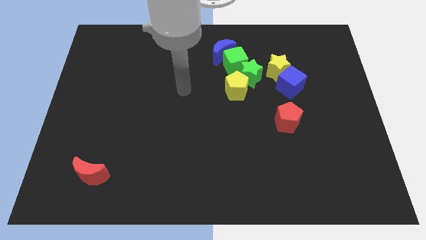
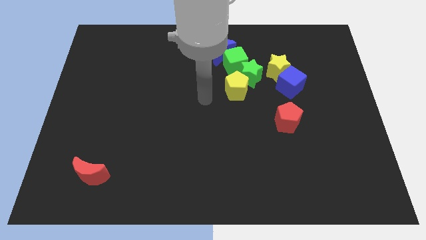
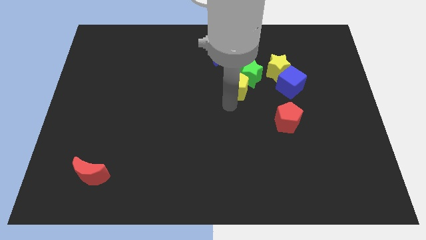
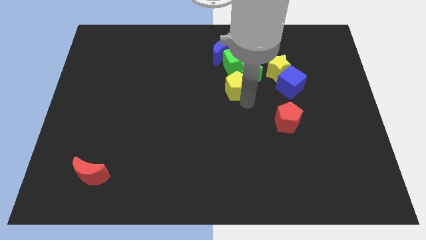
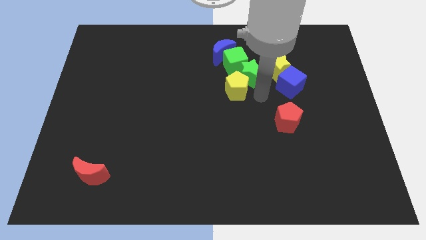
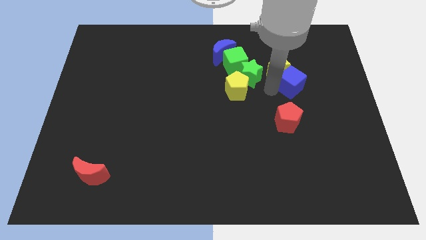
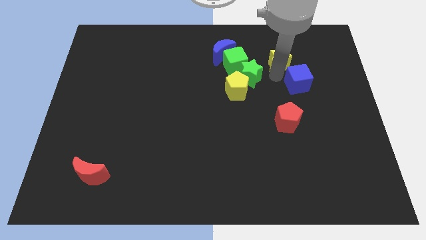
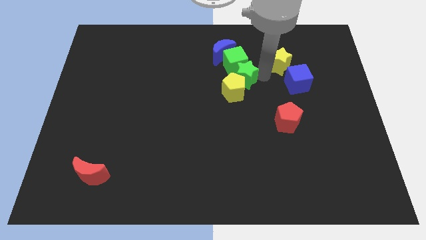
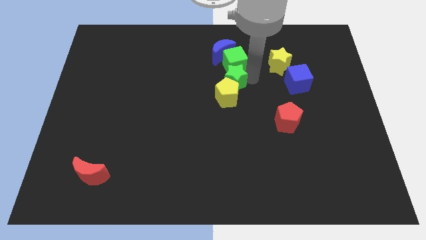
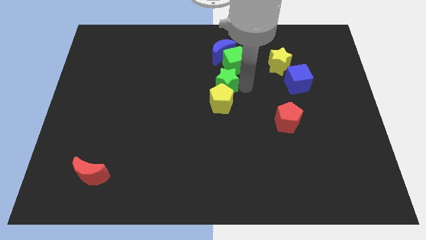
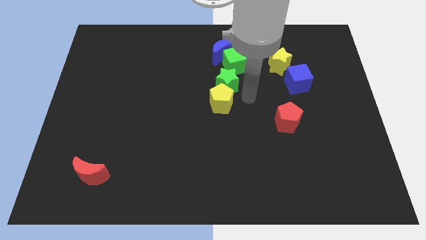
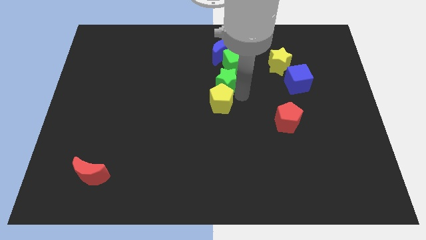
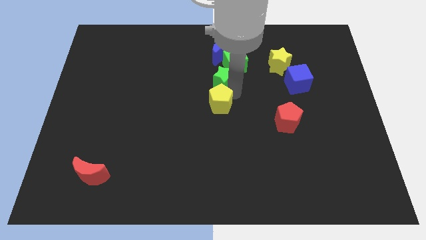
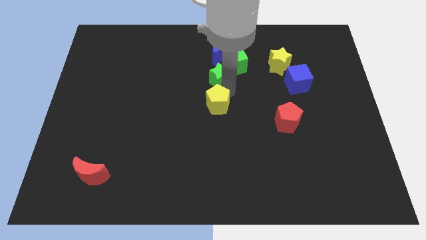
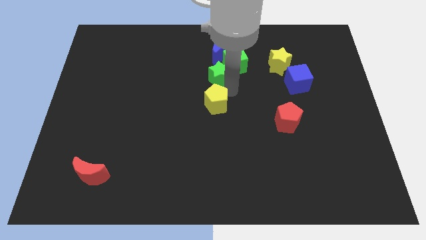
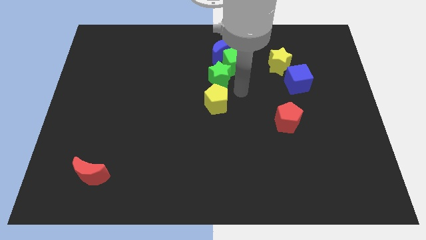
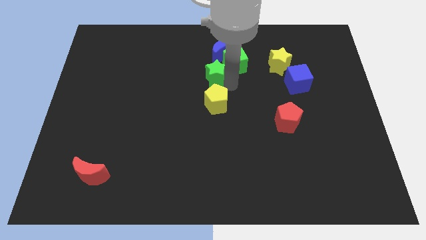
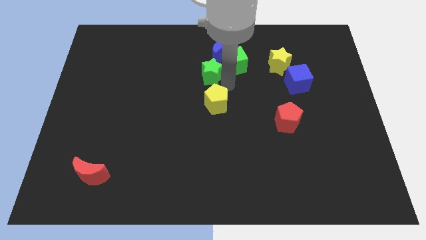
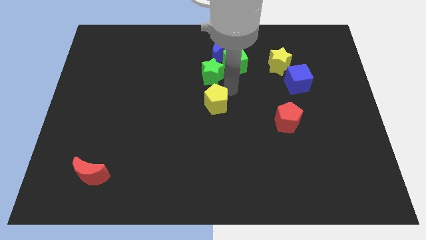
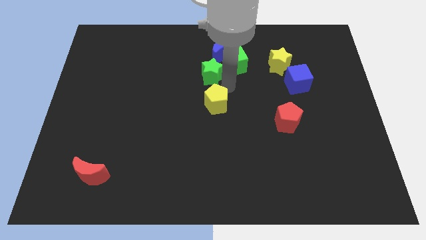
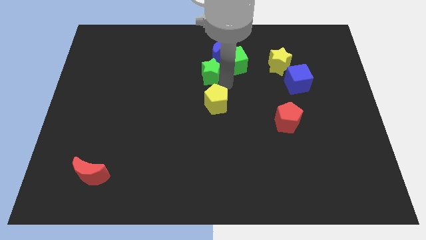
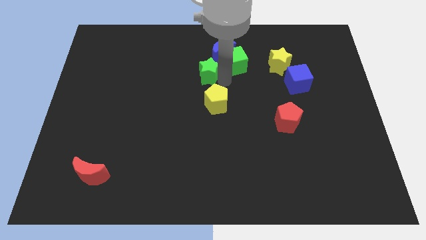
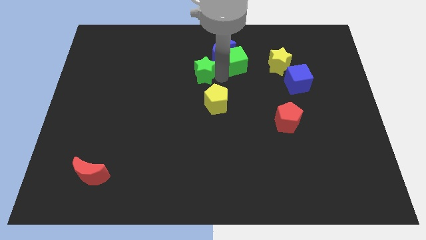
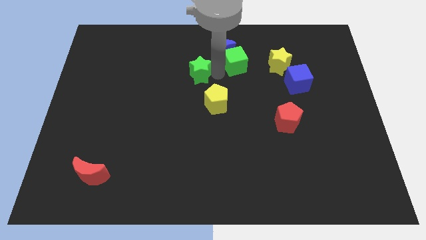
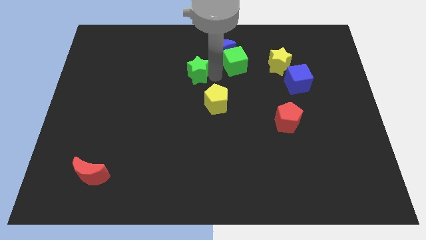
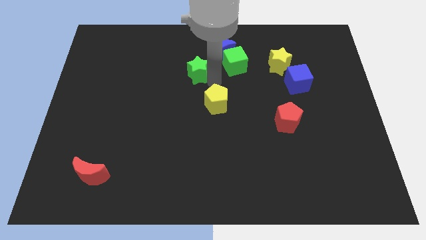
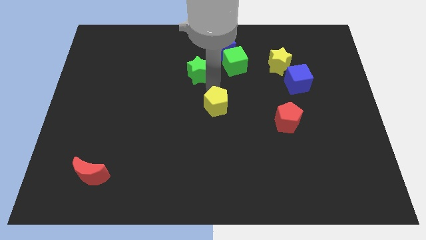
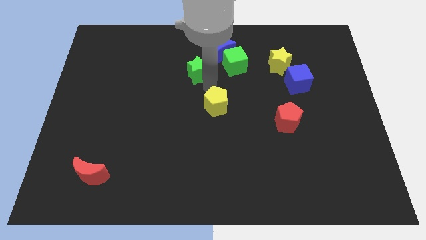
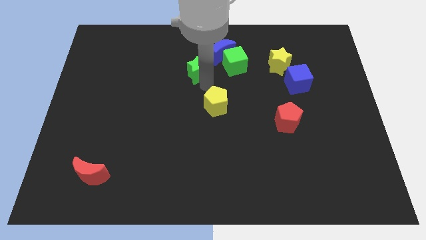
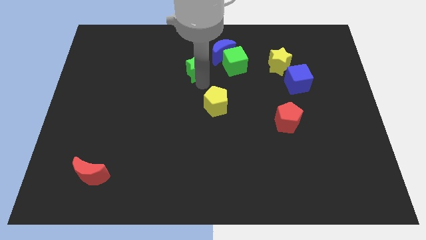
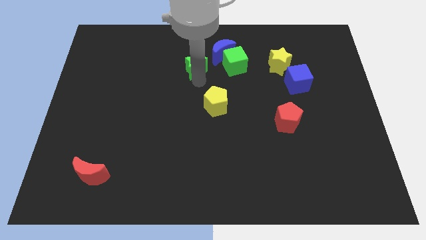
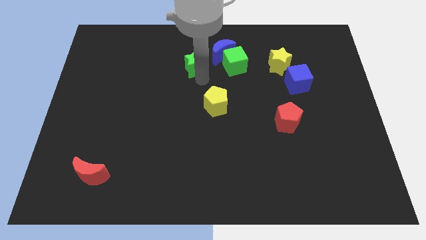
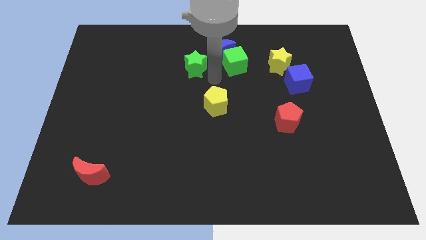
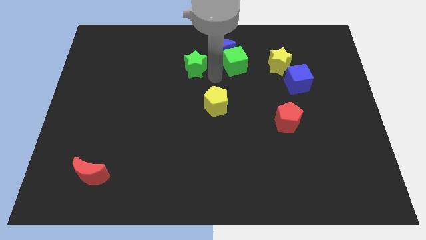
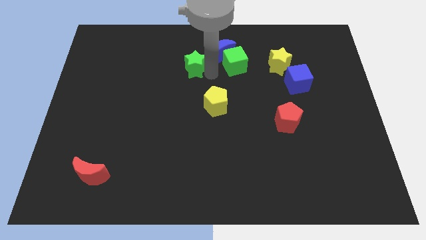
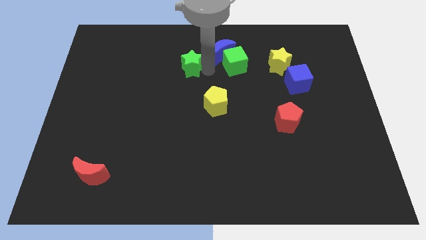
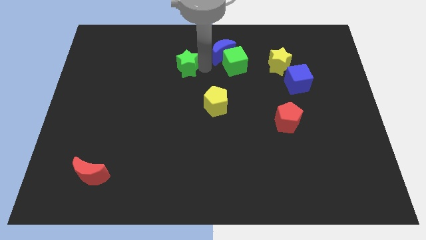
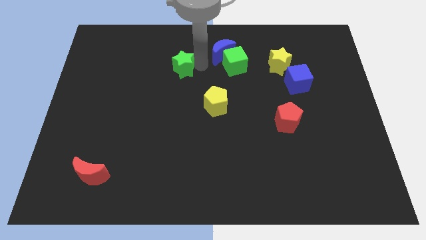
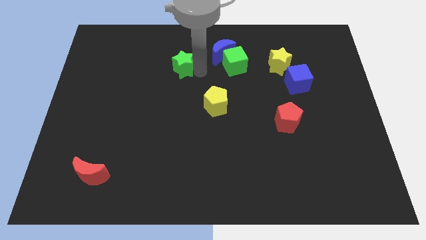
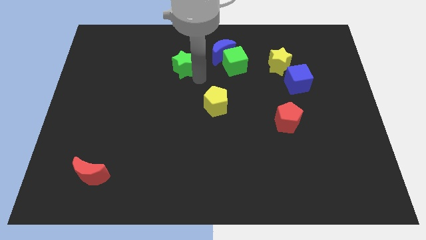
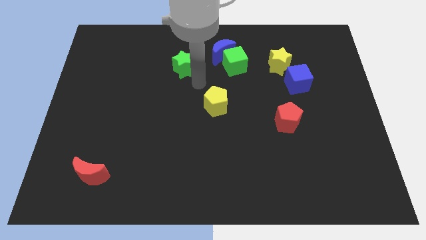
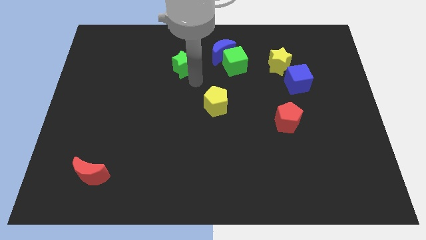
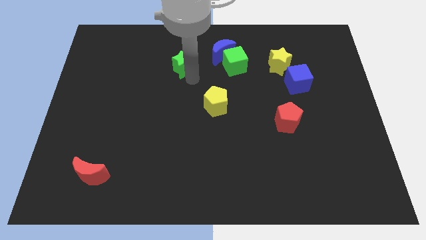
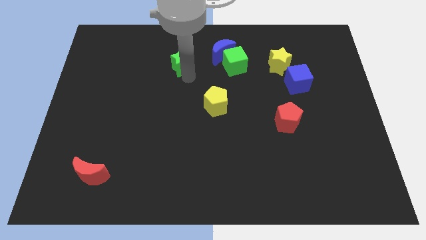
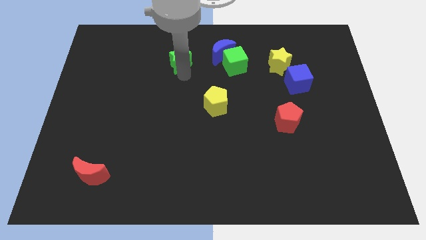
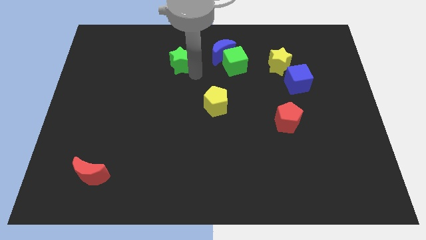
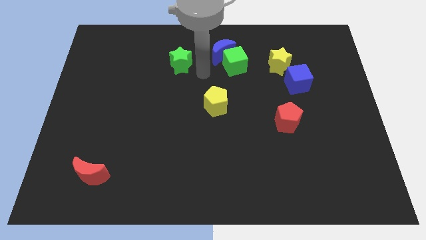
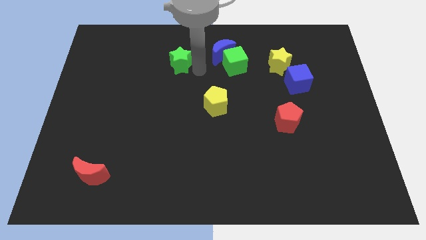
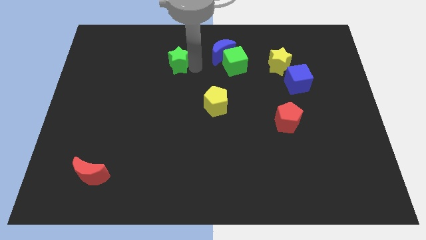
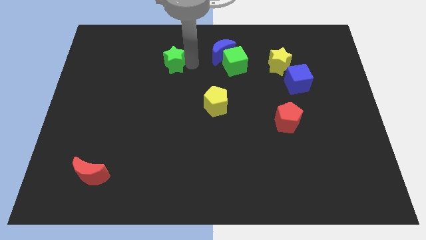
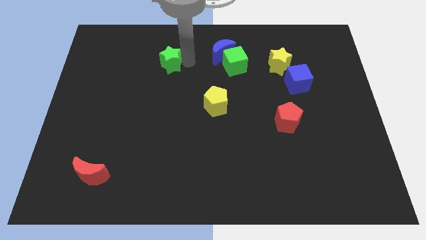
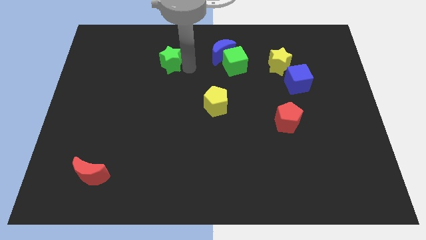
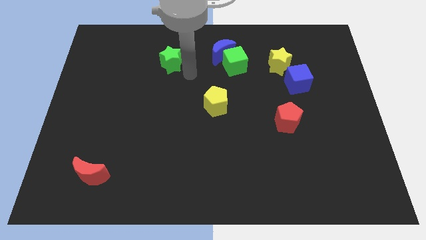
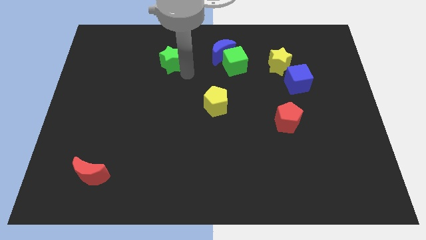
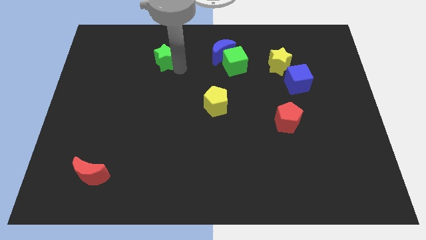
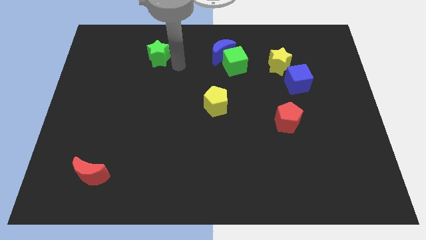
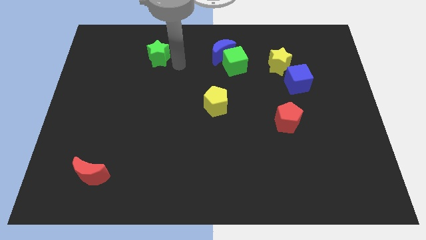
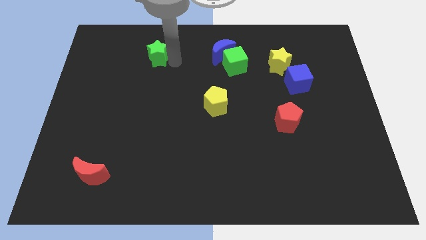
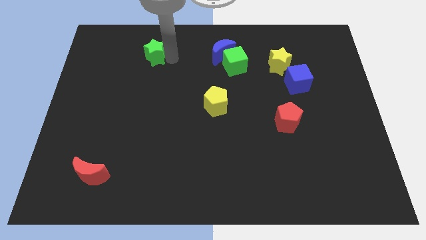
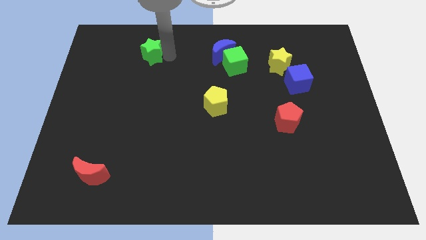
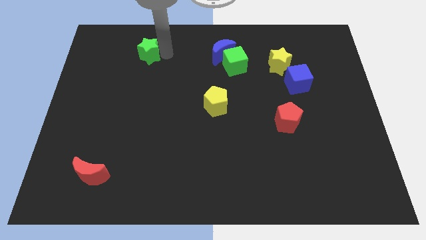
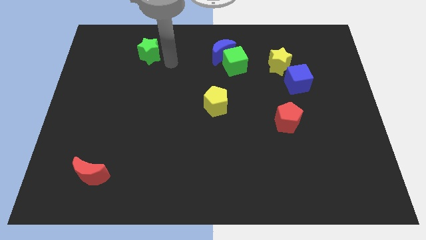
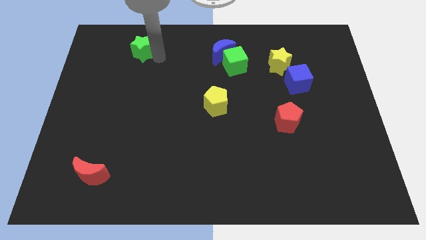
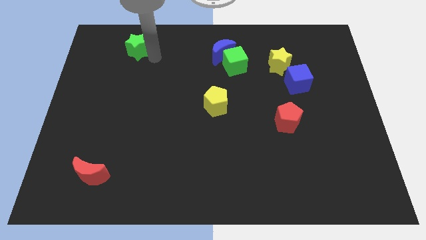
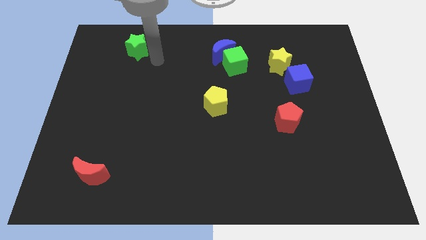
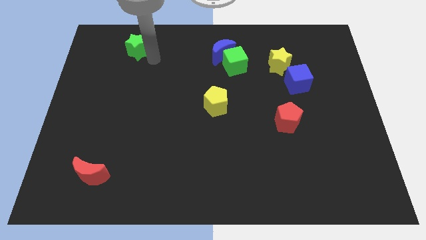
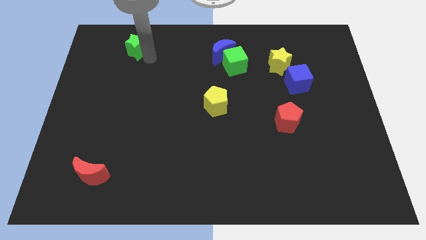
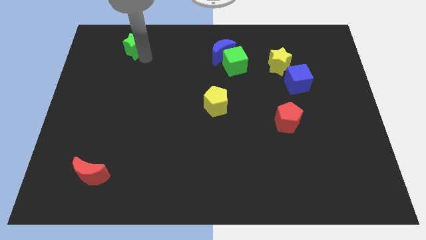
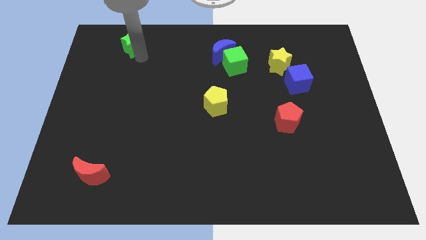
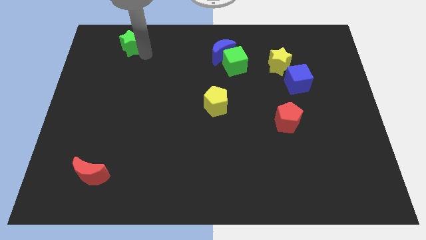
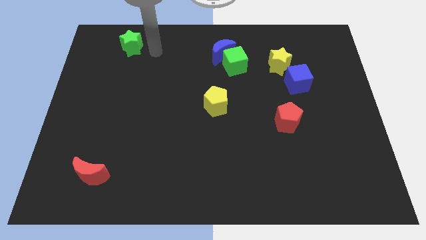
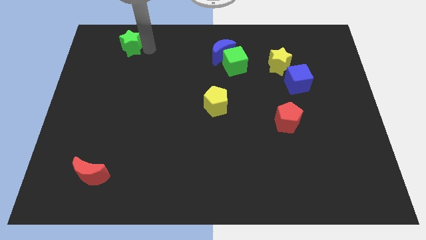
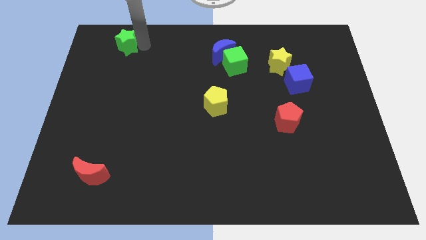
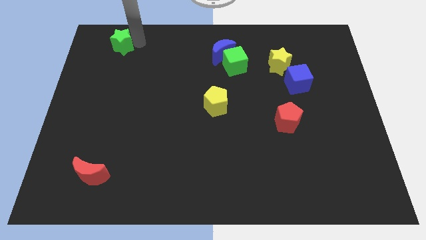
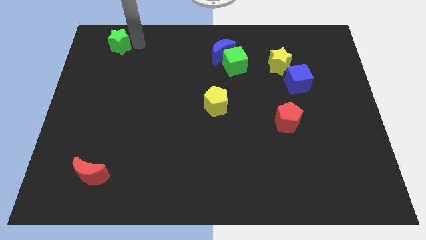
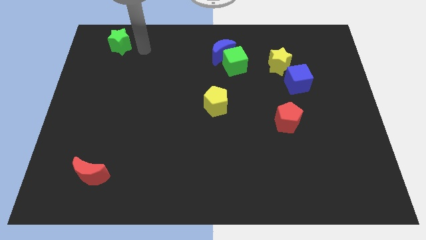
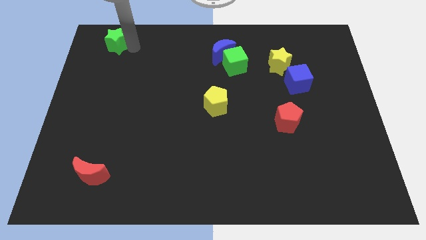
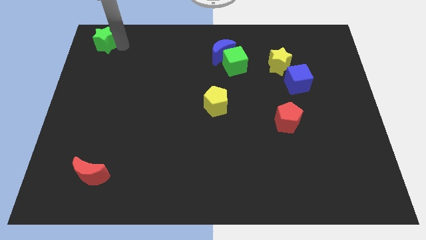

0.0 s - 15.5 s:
slide the green star to the top left corner
